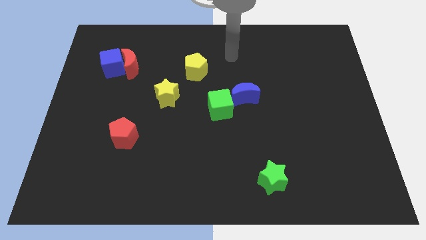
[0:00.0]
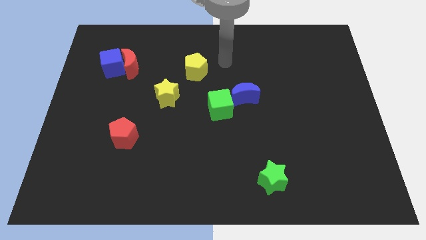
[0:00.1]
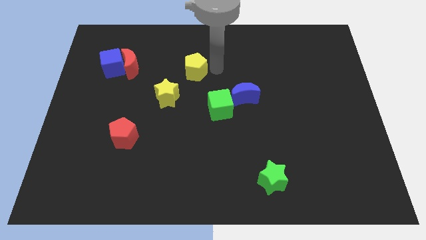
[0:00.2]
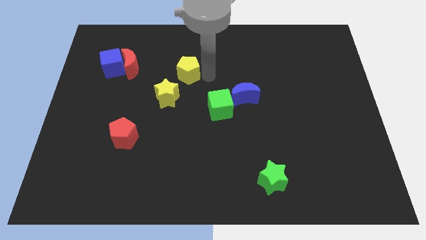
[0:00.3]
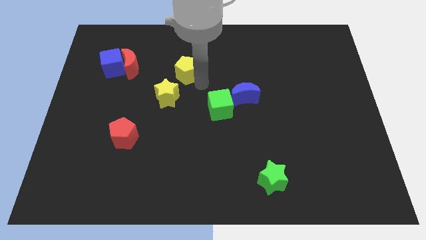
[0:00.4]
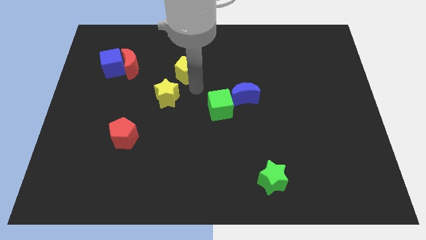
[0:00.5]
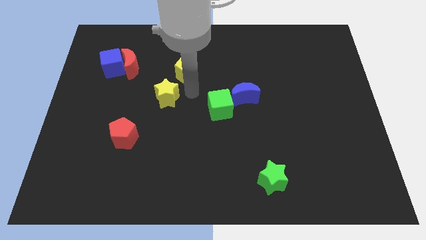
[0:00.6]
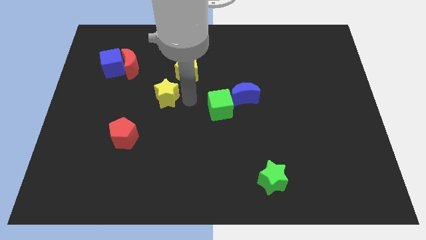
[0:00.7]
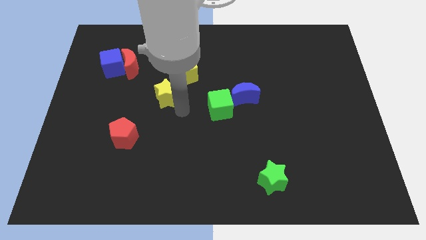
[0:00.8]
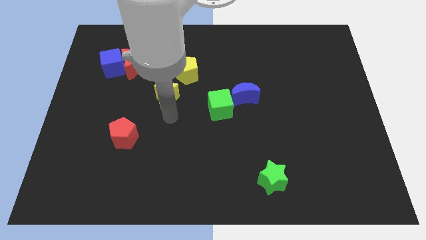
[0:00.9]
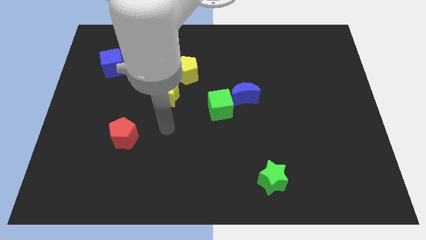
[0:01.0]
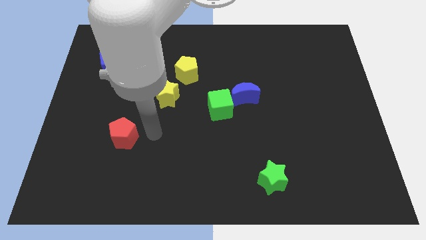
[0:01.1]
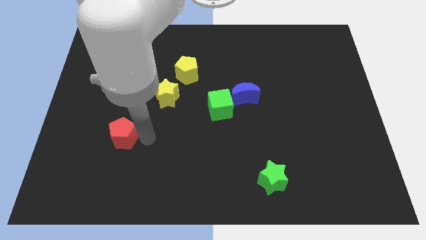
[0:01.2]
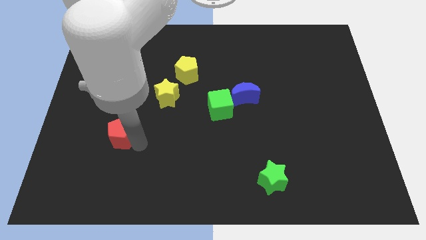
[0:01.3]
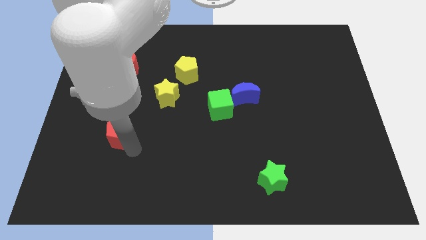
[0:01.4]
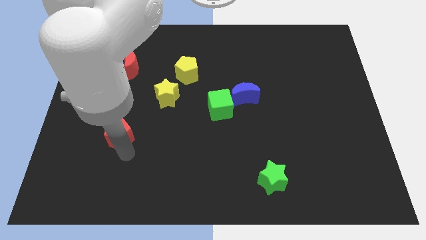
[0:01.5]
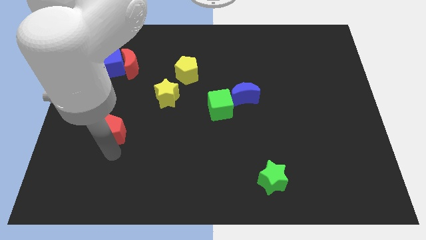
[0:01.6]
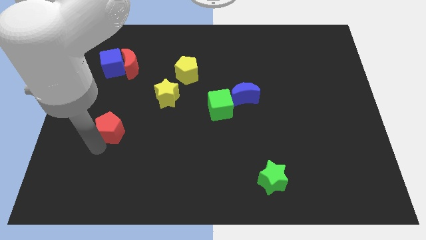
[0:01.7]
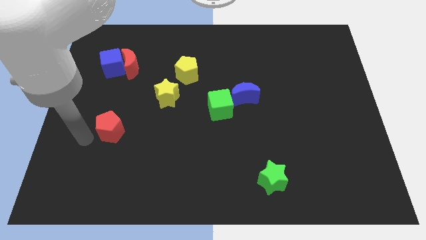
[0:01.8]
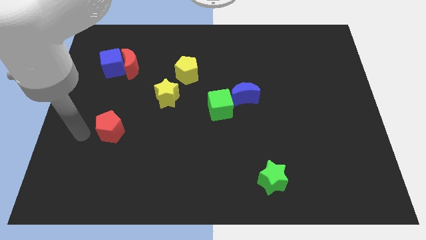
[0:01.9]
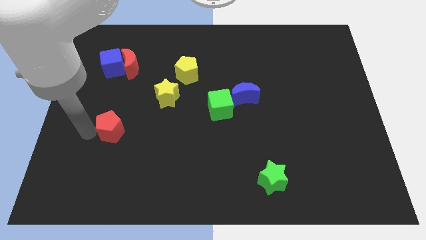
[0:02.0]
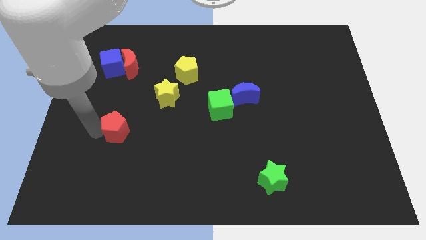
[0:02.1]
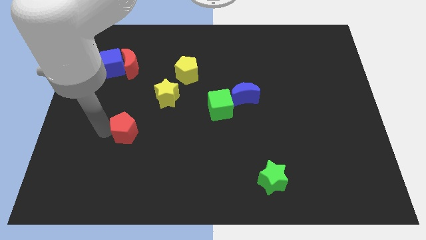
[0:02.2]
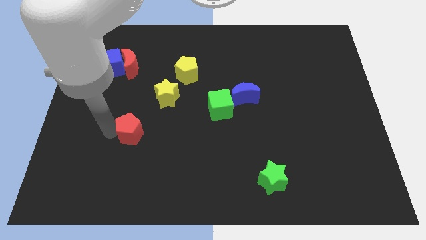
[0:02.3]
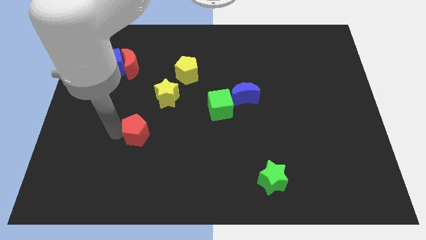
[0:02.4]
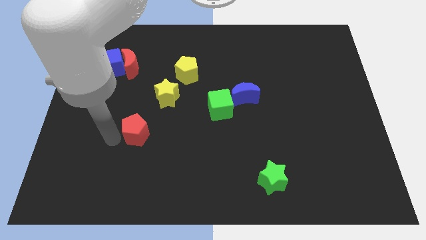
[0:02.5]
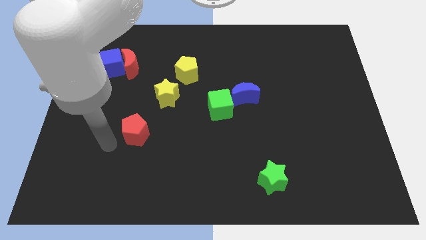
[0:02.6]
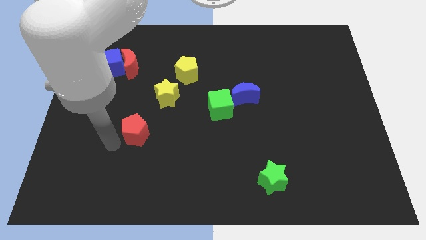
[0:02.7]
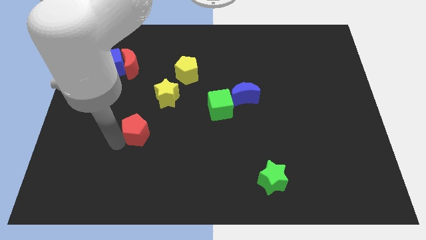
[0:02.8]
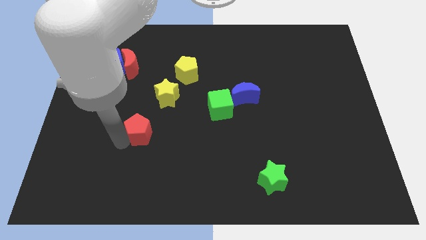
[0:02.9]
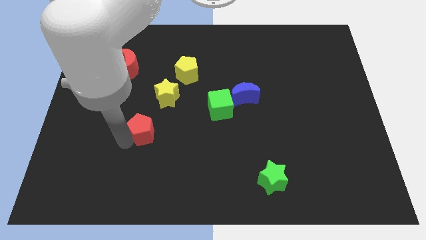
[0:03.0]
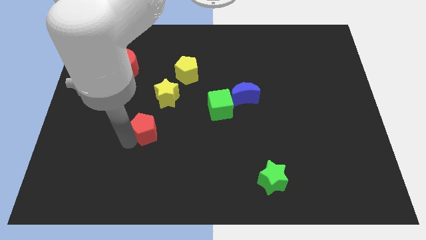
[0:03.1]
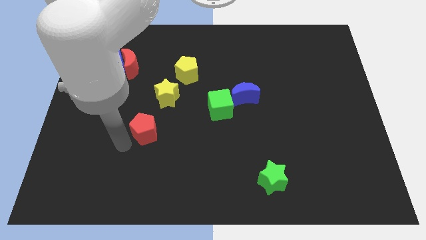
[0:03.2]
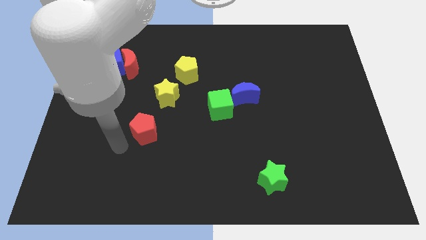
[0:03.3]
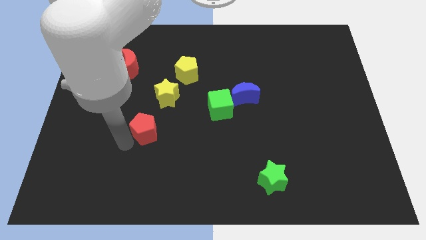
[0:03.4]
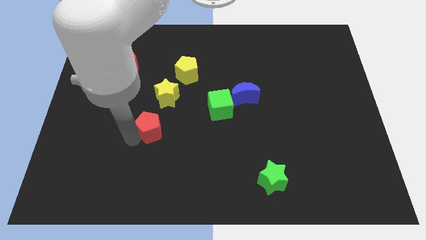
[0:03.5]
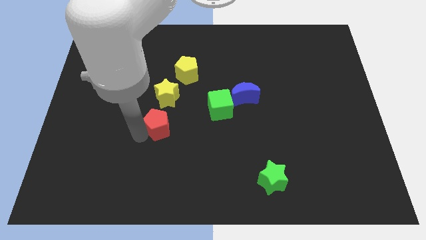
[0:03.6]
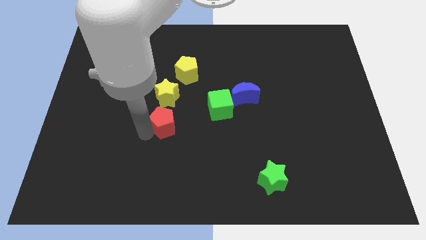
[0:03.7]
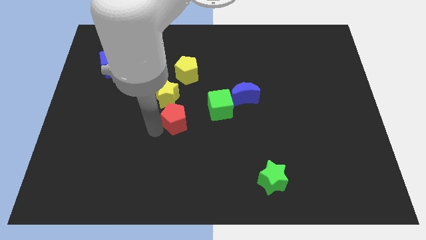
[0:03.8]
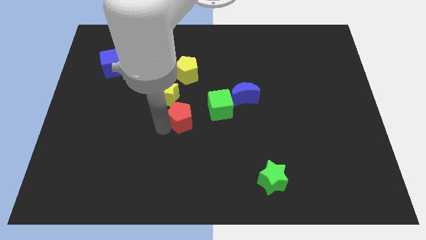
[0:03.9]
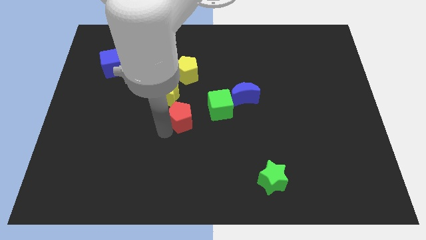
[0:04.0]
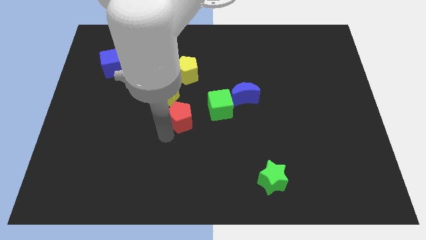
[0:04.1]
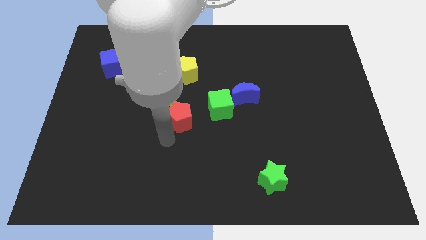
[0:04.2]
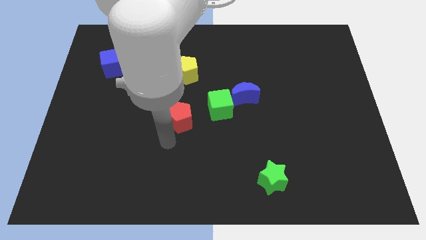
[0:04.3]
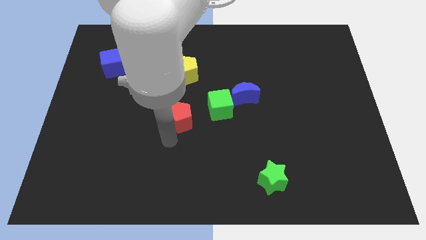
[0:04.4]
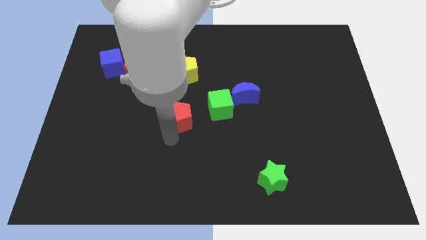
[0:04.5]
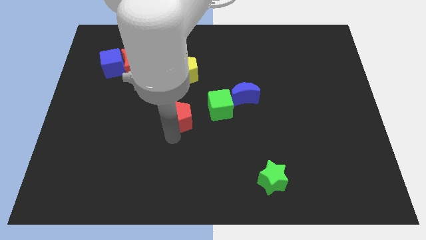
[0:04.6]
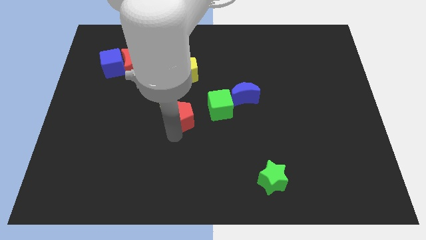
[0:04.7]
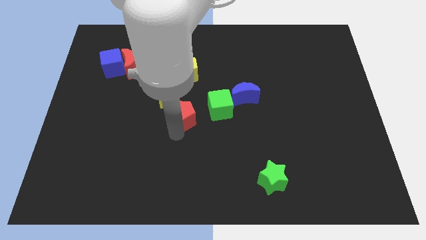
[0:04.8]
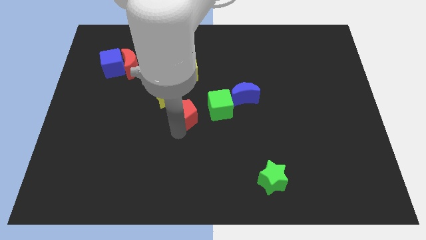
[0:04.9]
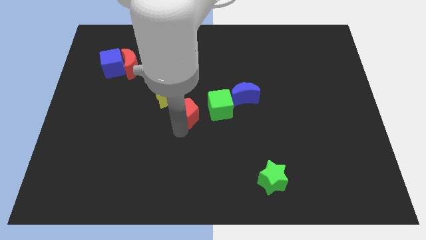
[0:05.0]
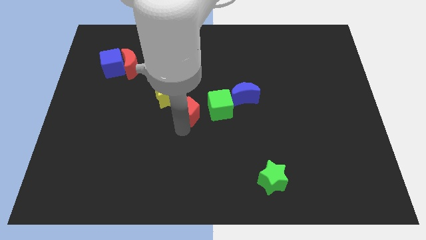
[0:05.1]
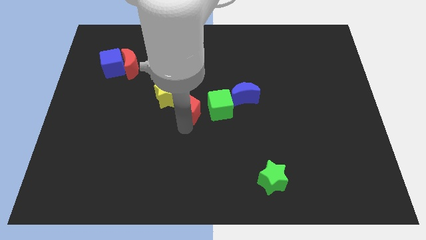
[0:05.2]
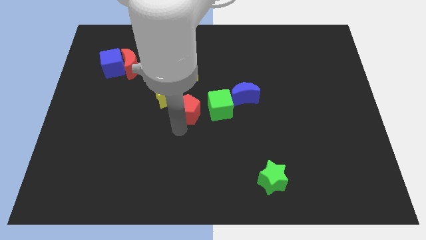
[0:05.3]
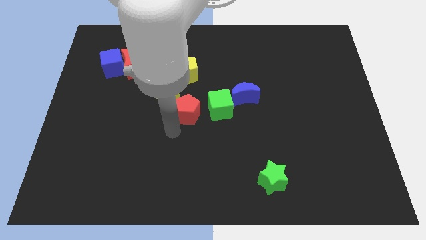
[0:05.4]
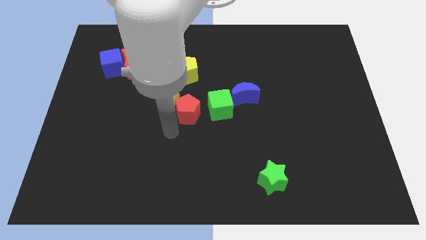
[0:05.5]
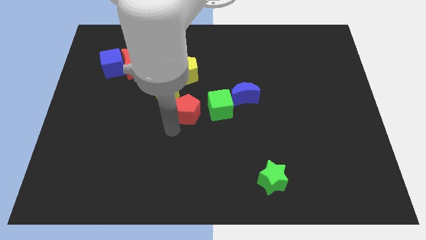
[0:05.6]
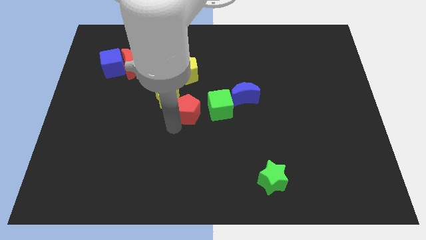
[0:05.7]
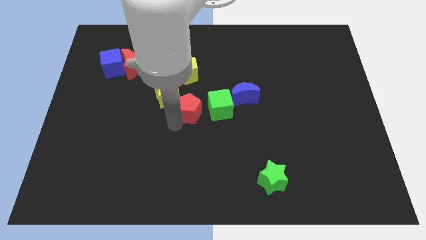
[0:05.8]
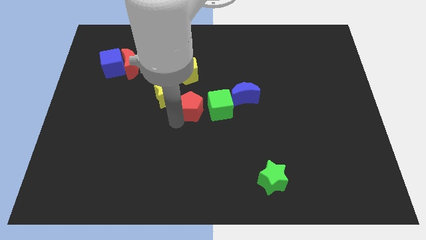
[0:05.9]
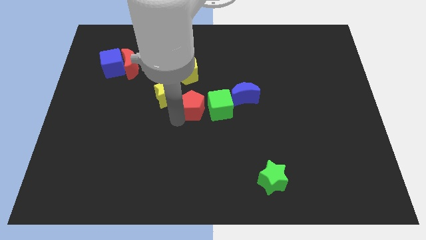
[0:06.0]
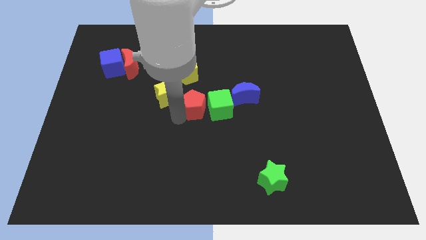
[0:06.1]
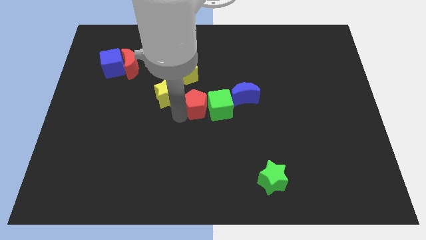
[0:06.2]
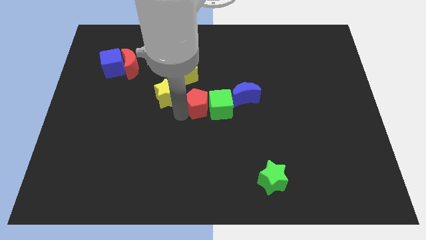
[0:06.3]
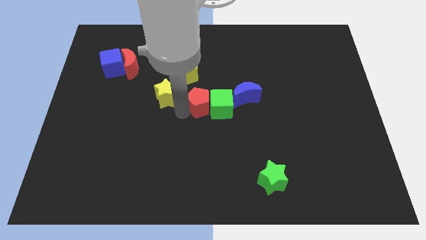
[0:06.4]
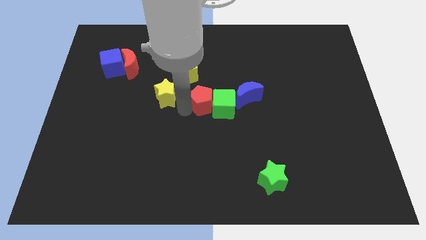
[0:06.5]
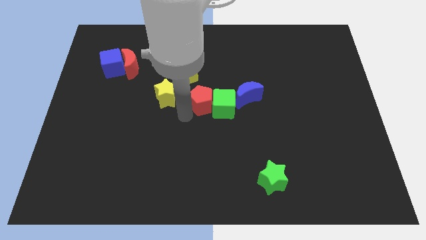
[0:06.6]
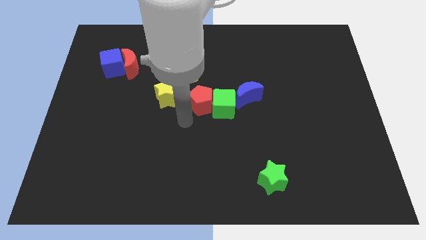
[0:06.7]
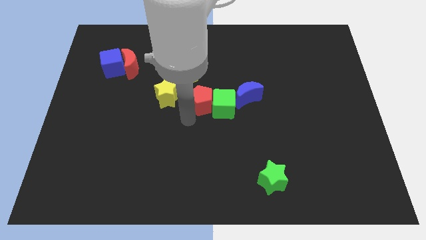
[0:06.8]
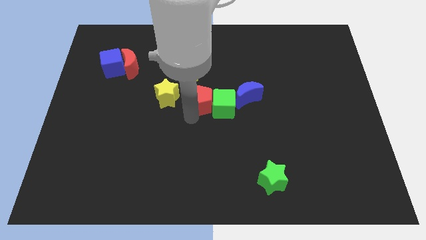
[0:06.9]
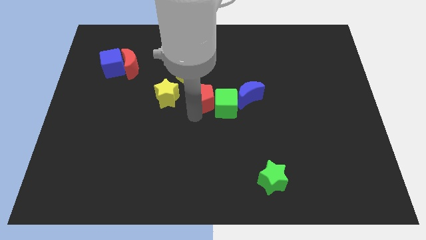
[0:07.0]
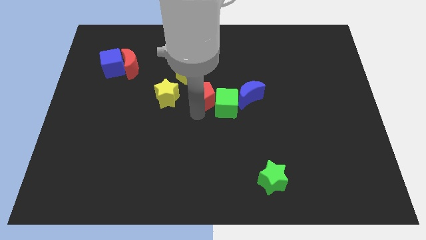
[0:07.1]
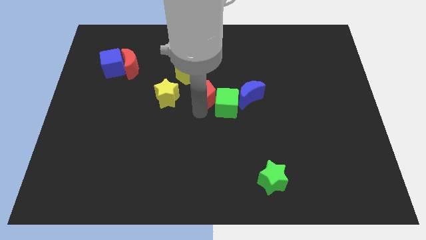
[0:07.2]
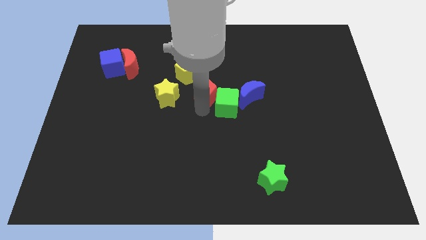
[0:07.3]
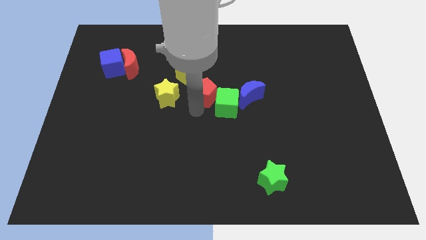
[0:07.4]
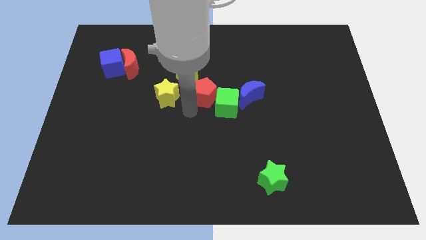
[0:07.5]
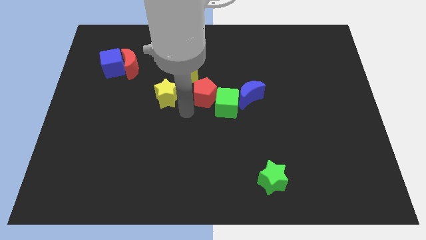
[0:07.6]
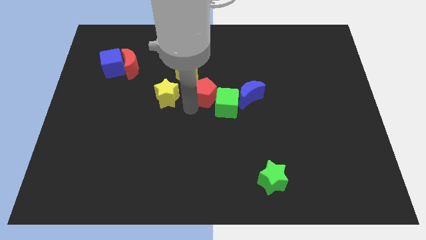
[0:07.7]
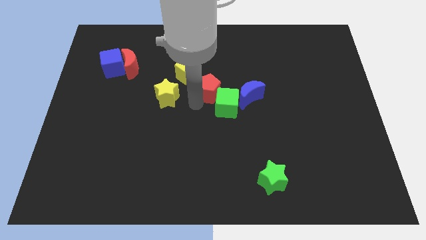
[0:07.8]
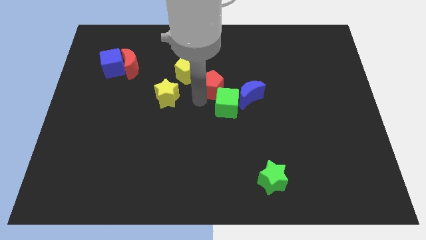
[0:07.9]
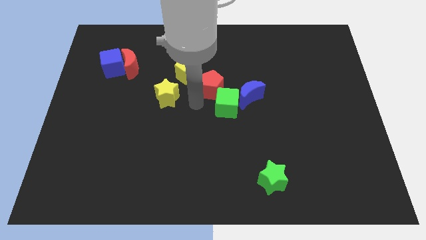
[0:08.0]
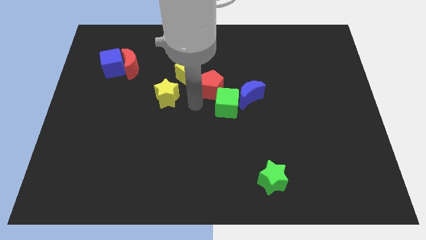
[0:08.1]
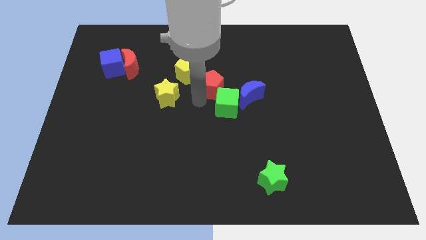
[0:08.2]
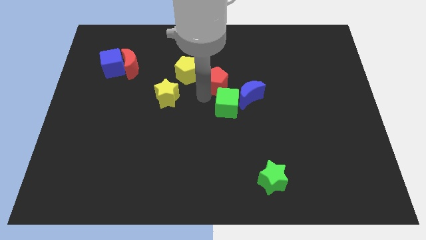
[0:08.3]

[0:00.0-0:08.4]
move the red pentagon to the right of the yellow pentagon
